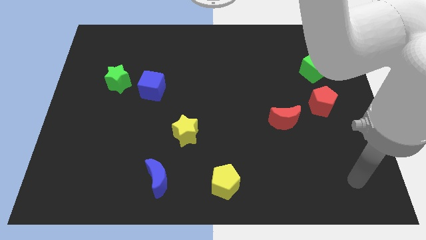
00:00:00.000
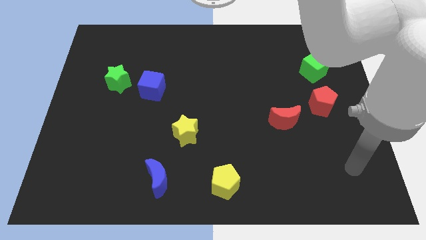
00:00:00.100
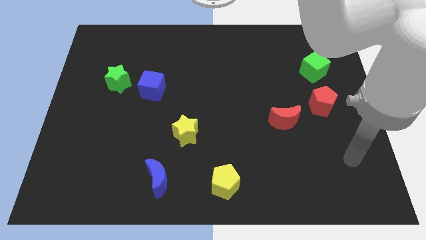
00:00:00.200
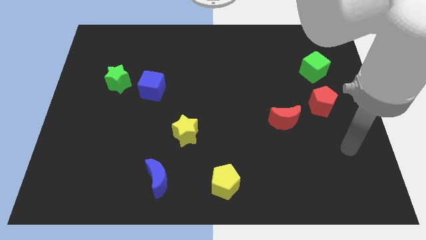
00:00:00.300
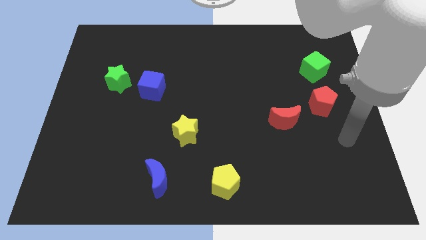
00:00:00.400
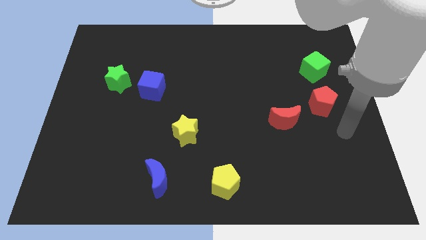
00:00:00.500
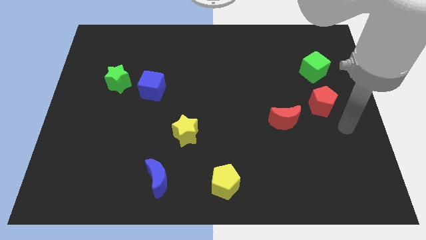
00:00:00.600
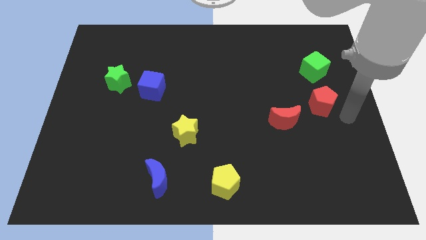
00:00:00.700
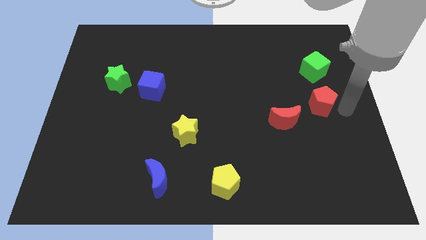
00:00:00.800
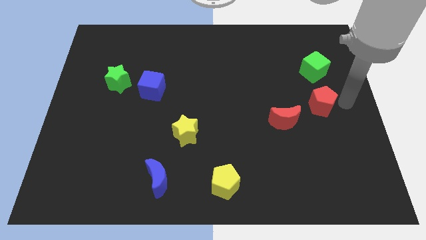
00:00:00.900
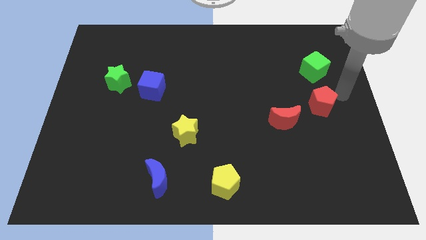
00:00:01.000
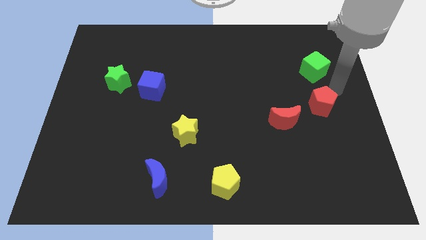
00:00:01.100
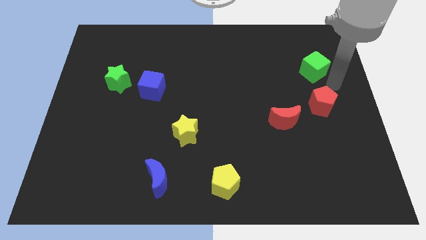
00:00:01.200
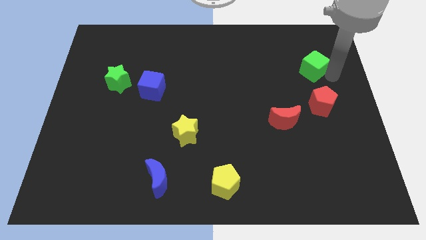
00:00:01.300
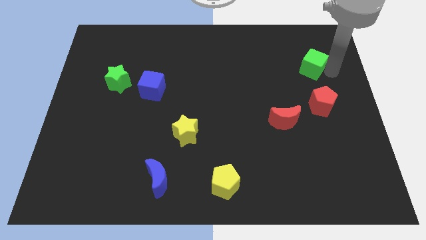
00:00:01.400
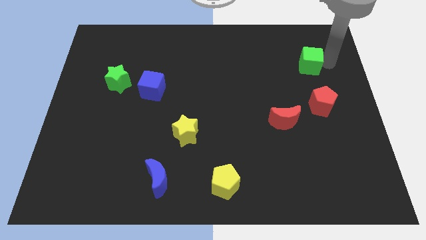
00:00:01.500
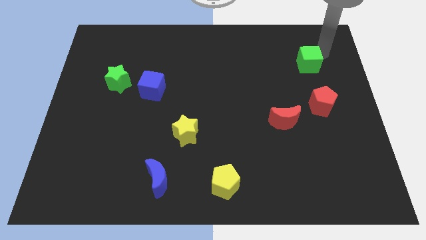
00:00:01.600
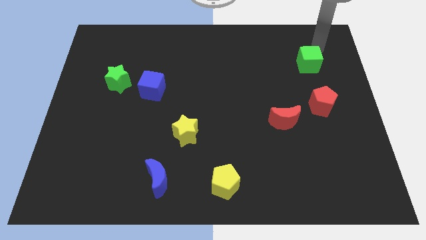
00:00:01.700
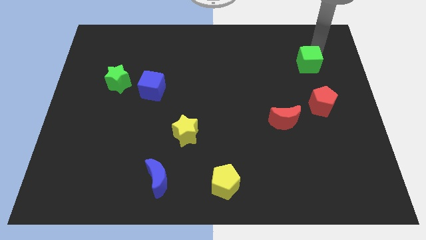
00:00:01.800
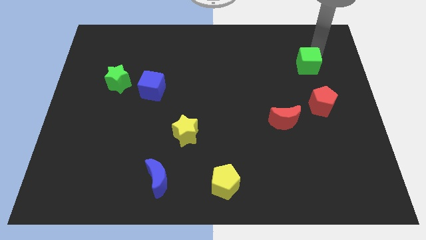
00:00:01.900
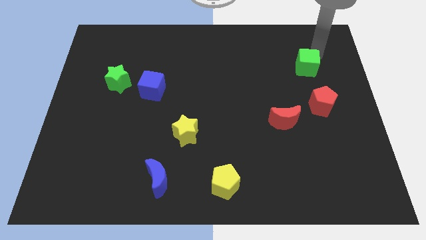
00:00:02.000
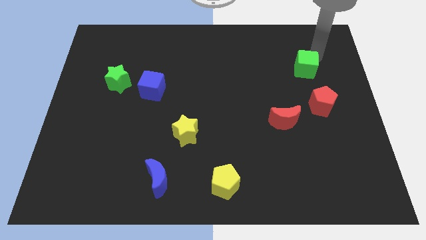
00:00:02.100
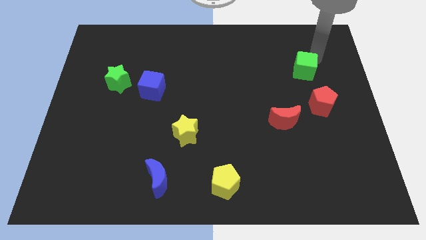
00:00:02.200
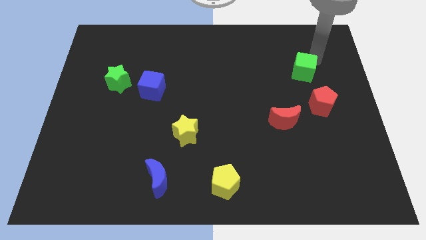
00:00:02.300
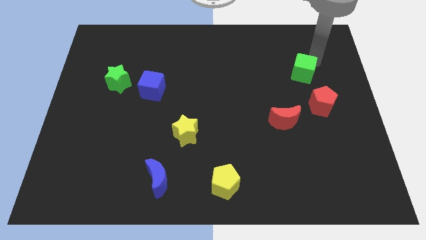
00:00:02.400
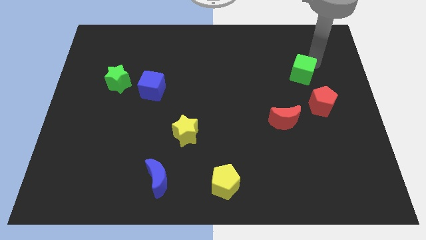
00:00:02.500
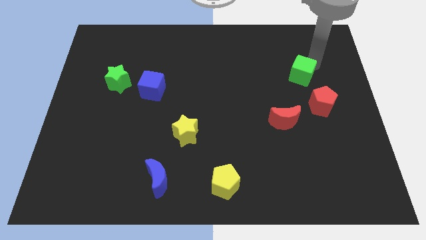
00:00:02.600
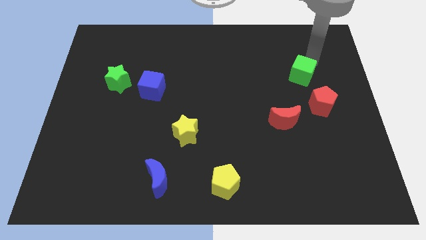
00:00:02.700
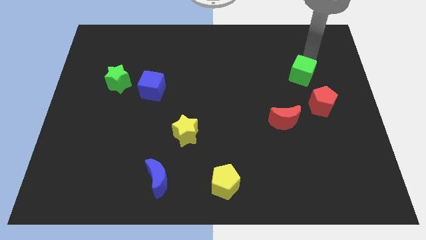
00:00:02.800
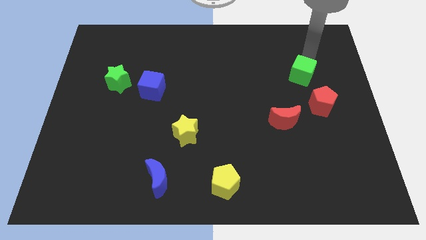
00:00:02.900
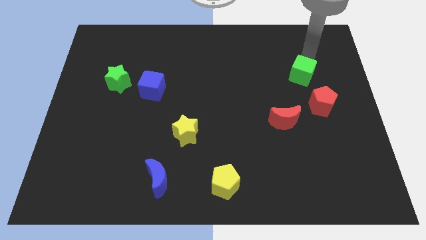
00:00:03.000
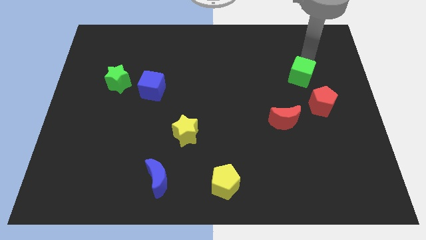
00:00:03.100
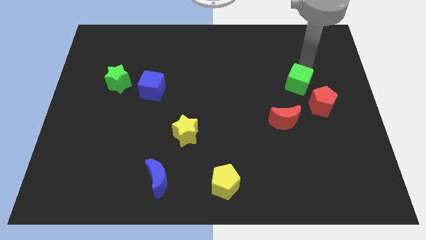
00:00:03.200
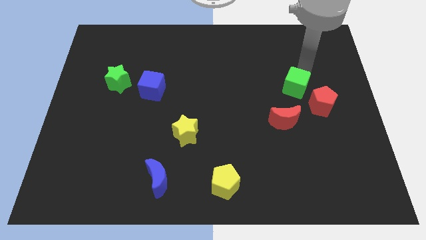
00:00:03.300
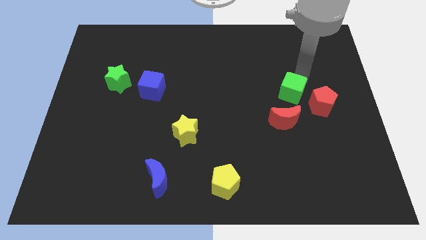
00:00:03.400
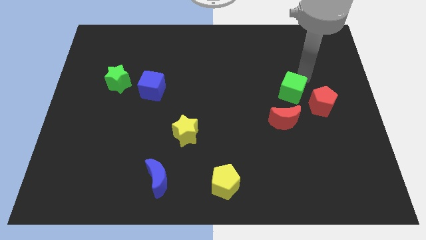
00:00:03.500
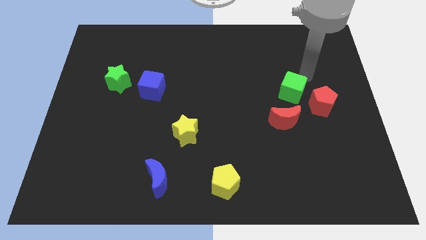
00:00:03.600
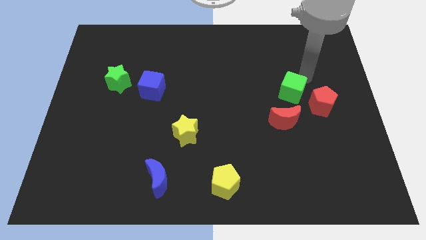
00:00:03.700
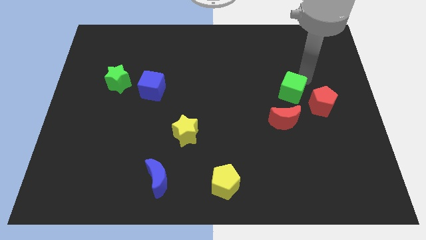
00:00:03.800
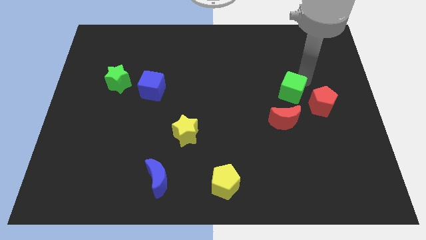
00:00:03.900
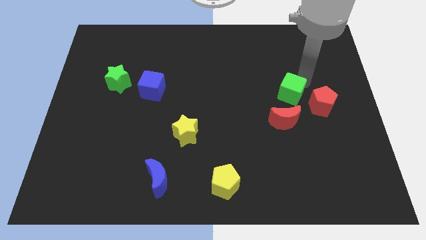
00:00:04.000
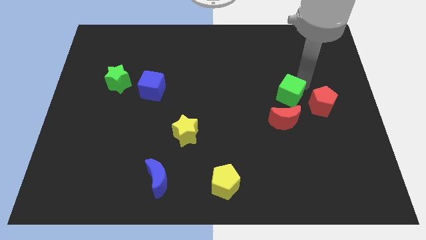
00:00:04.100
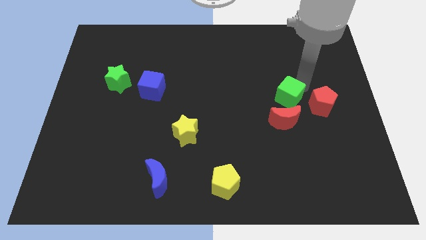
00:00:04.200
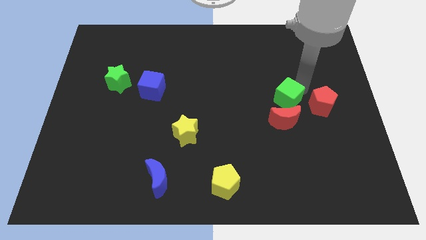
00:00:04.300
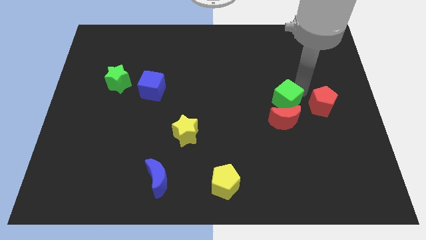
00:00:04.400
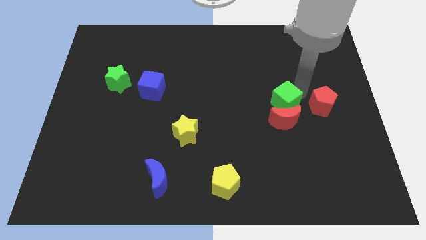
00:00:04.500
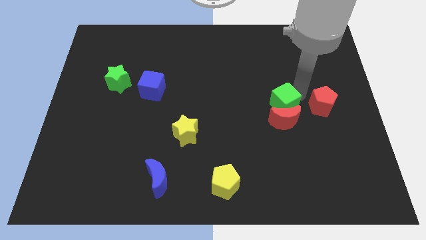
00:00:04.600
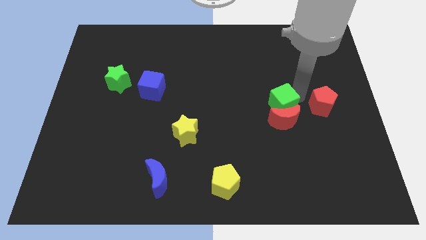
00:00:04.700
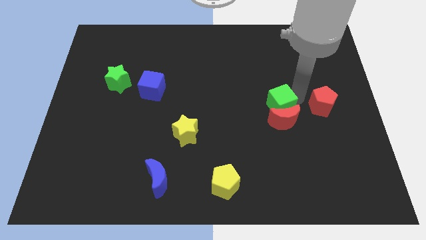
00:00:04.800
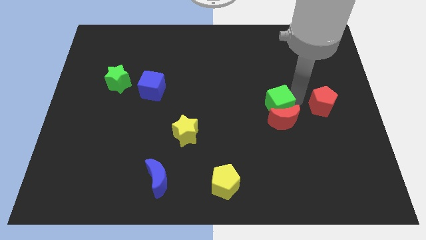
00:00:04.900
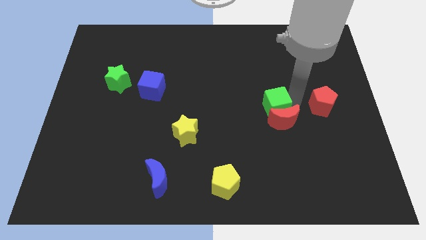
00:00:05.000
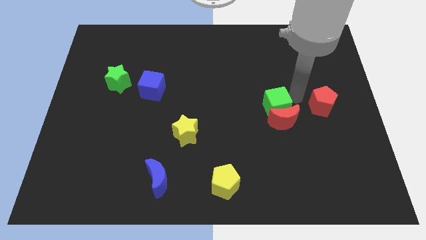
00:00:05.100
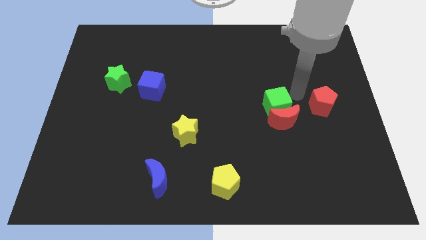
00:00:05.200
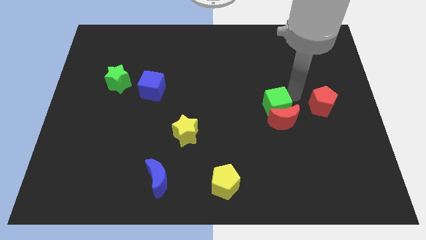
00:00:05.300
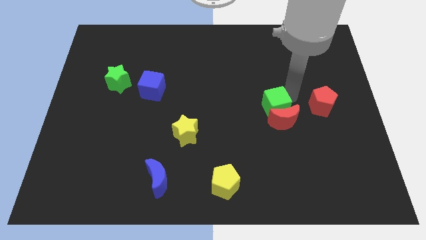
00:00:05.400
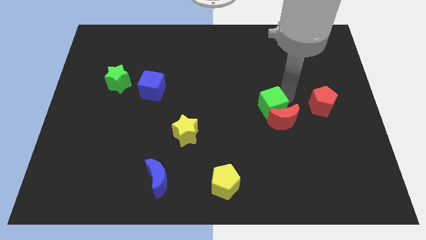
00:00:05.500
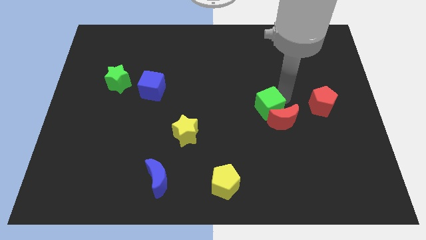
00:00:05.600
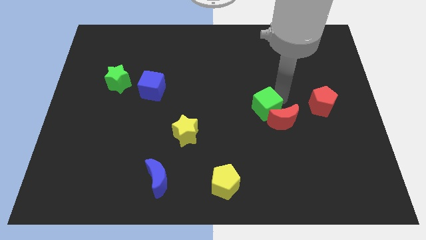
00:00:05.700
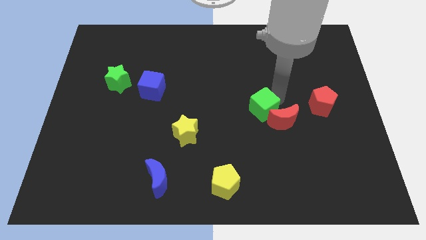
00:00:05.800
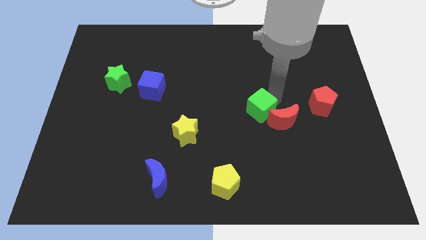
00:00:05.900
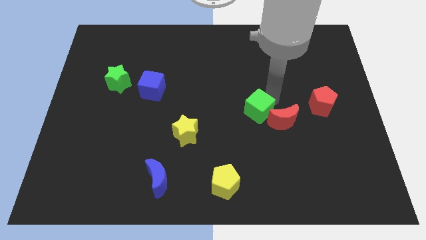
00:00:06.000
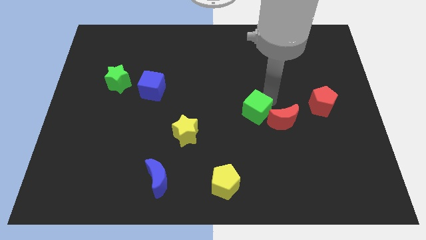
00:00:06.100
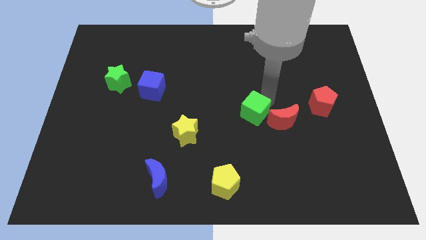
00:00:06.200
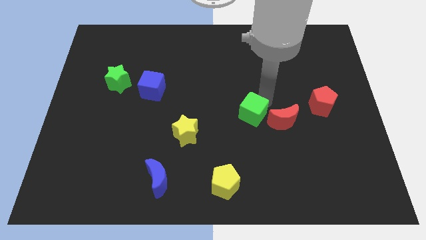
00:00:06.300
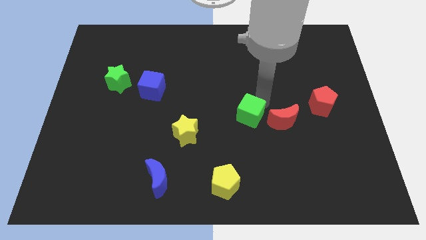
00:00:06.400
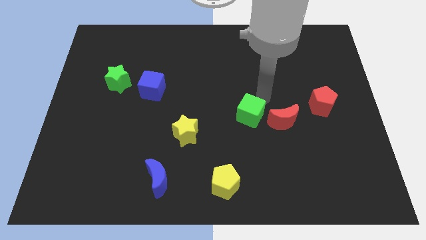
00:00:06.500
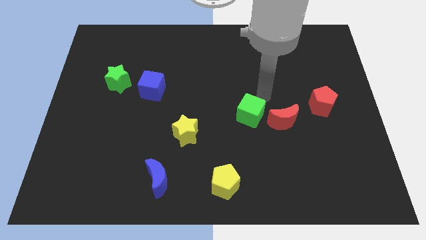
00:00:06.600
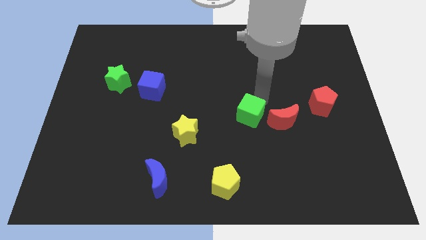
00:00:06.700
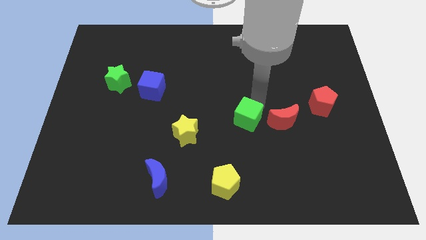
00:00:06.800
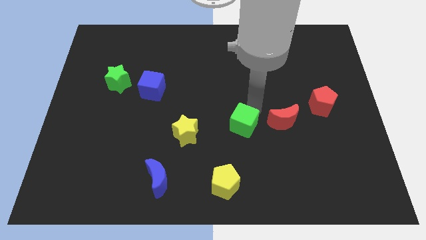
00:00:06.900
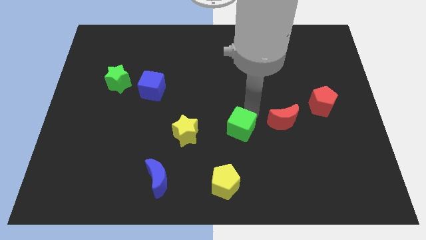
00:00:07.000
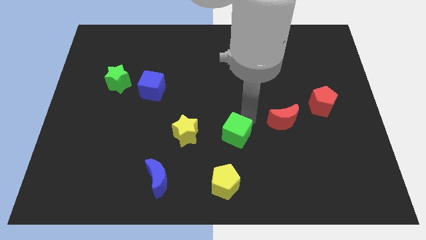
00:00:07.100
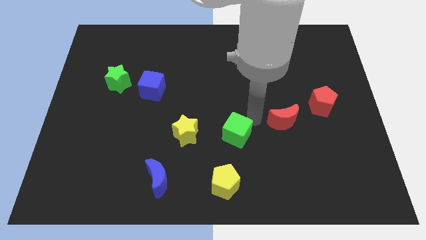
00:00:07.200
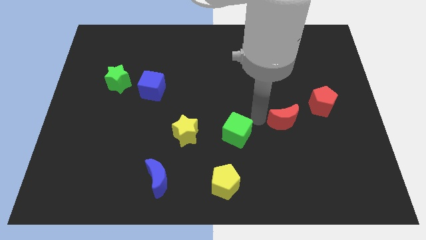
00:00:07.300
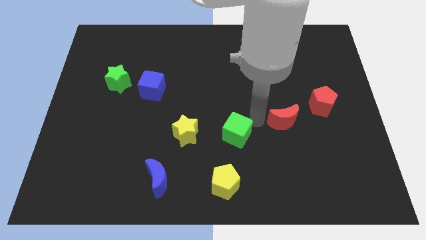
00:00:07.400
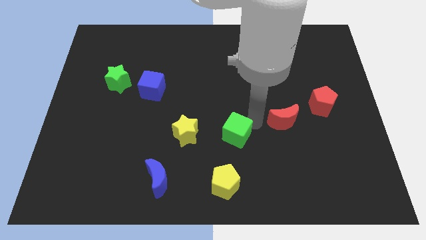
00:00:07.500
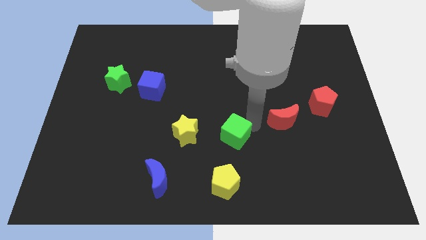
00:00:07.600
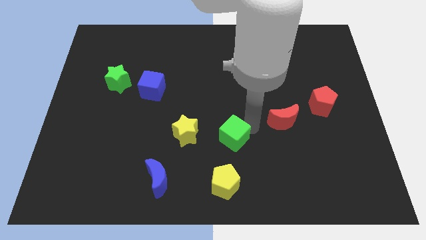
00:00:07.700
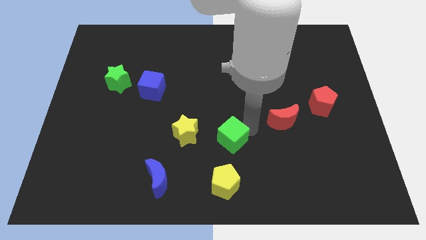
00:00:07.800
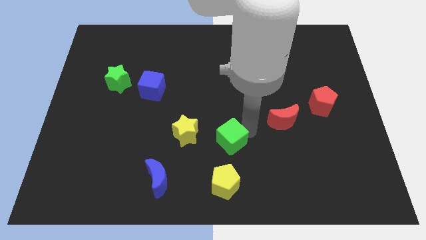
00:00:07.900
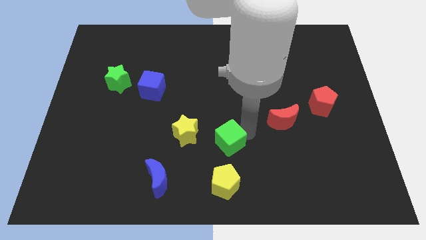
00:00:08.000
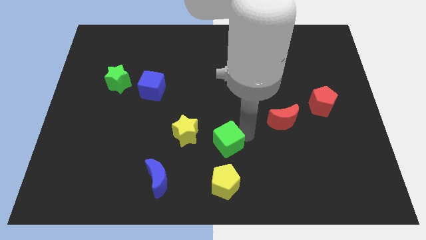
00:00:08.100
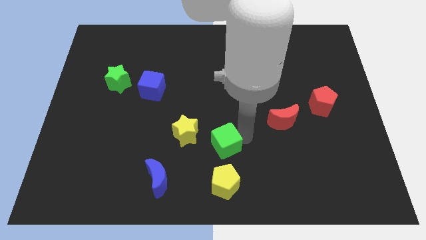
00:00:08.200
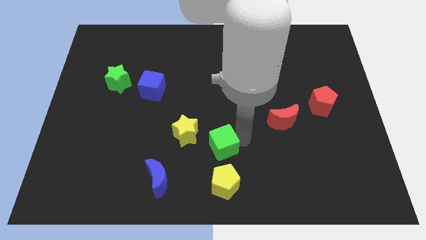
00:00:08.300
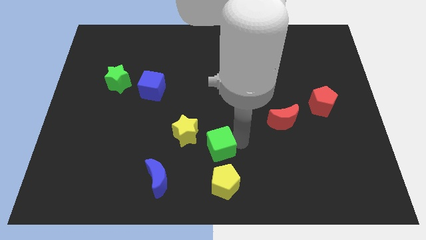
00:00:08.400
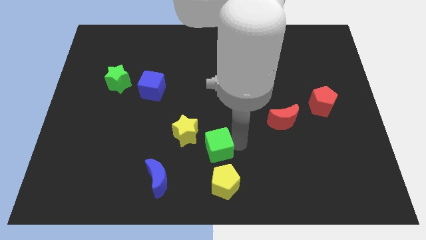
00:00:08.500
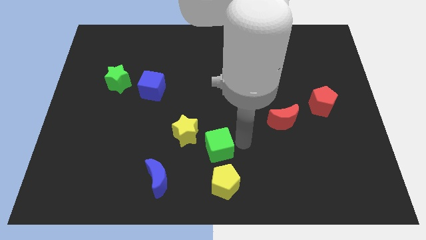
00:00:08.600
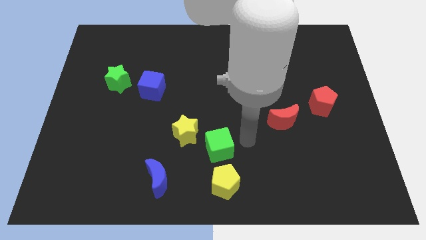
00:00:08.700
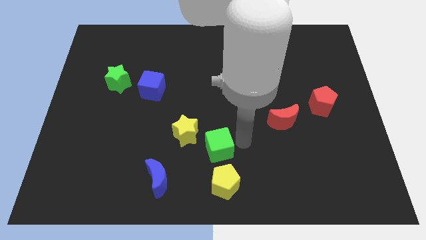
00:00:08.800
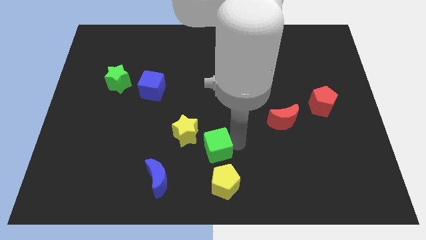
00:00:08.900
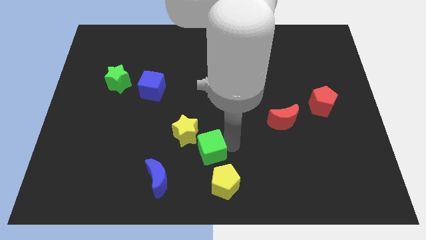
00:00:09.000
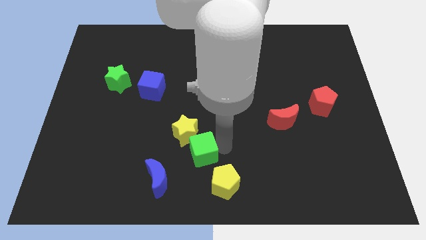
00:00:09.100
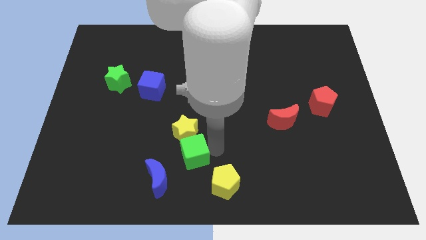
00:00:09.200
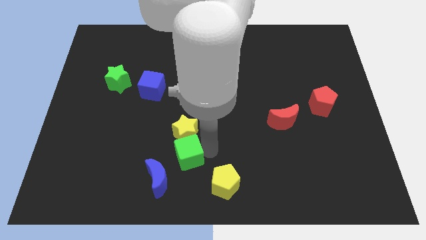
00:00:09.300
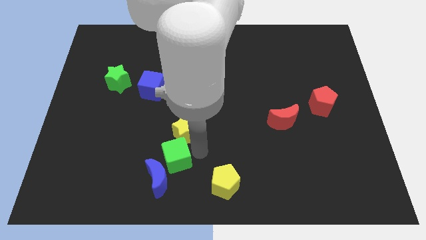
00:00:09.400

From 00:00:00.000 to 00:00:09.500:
move the green cube to the blue moon
